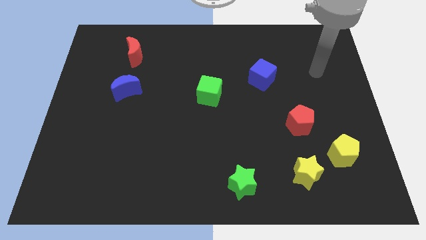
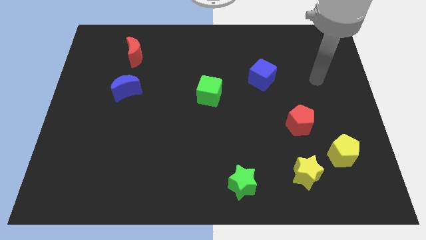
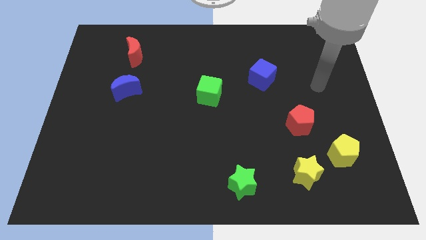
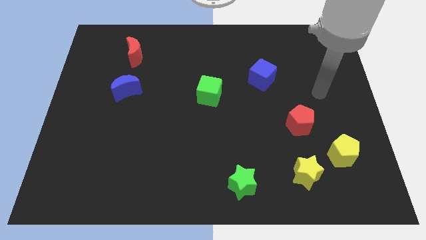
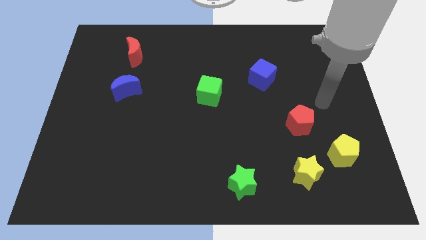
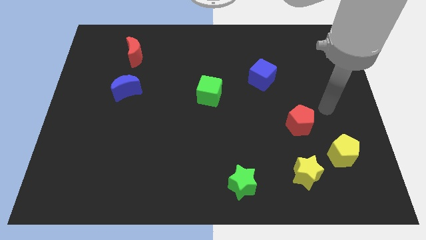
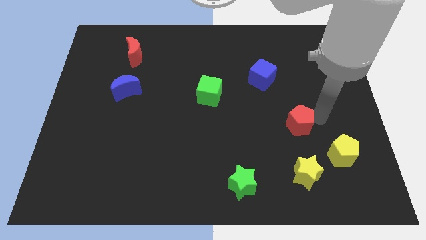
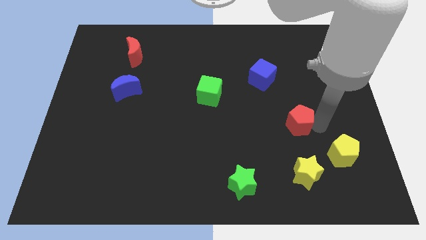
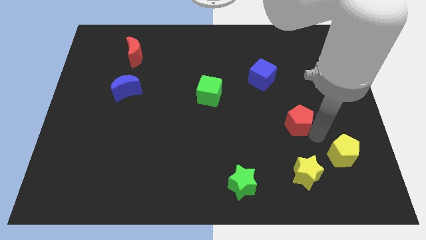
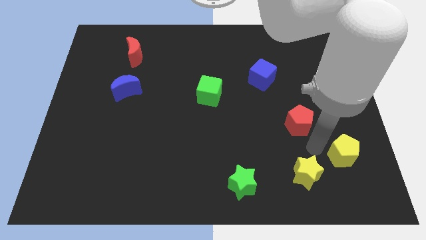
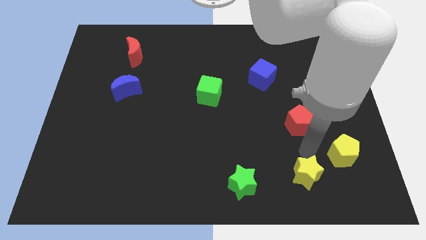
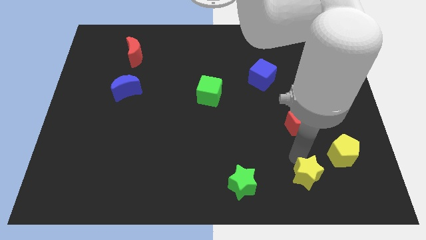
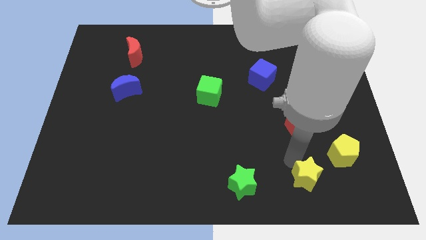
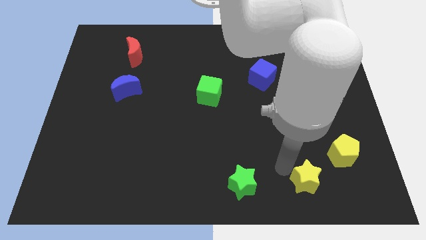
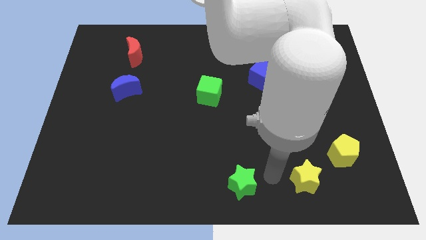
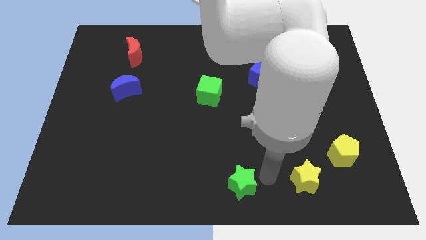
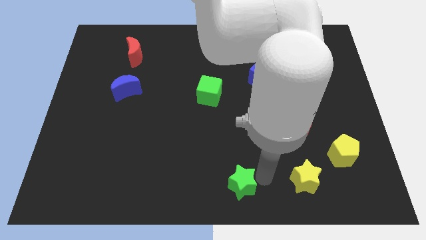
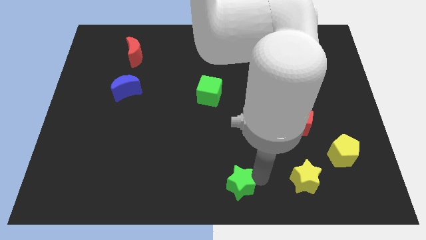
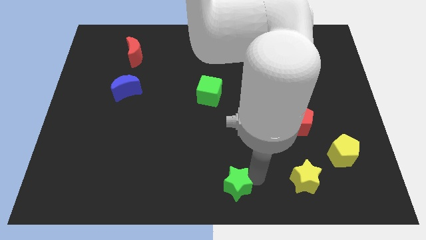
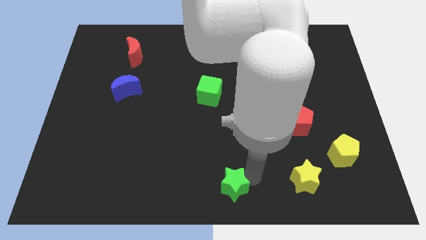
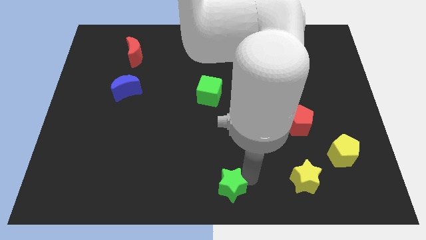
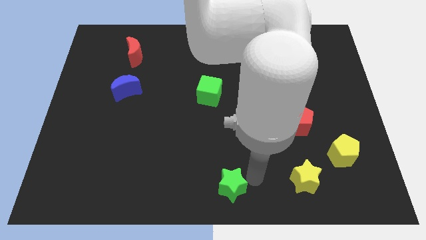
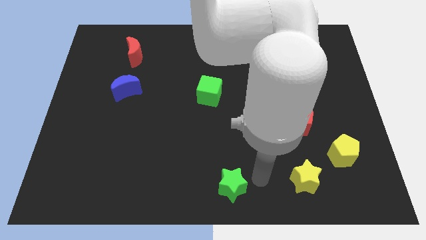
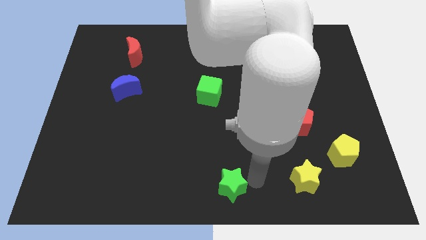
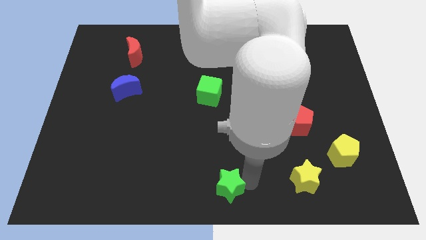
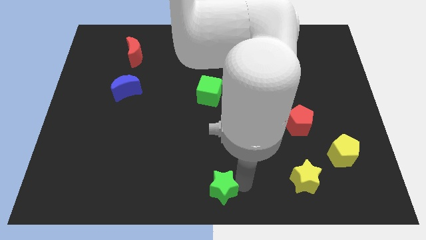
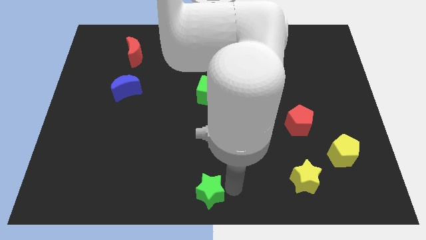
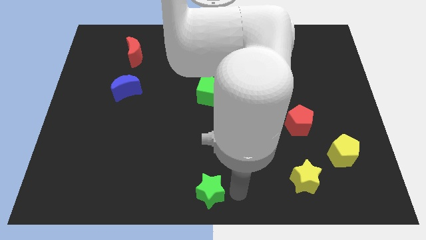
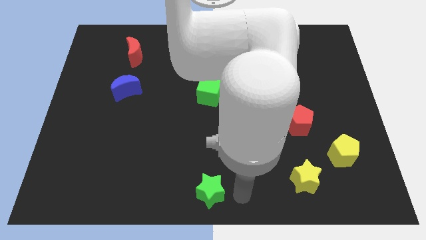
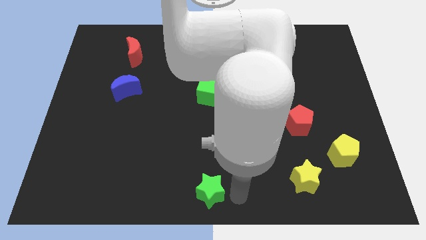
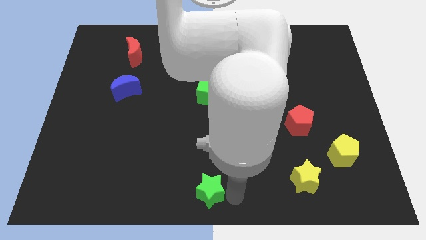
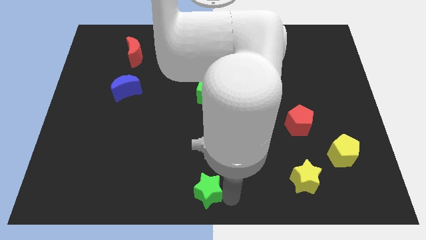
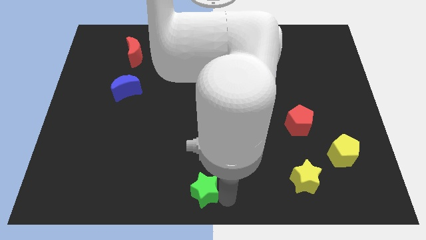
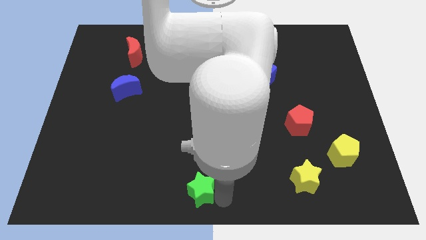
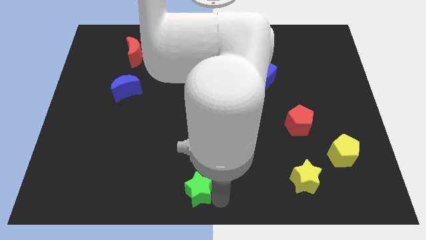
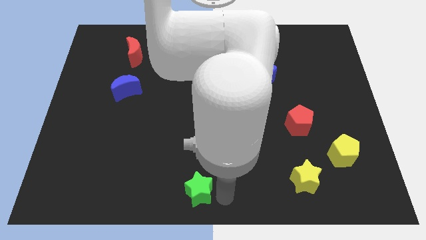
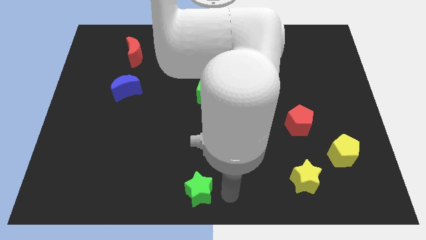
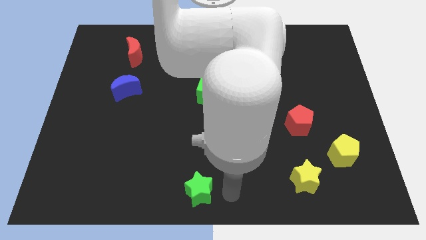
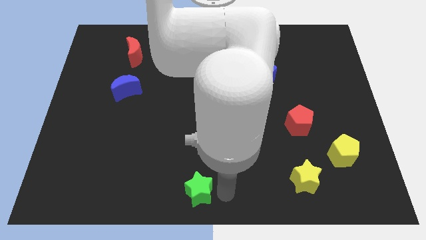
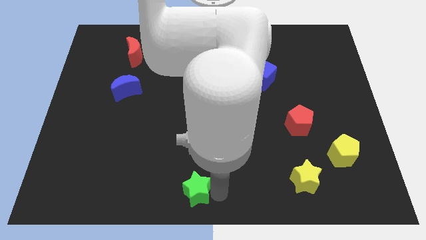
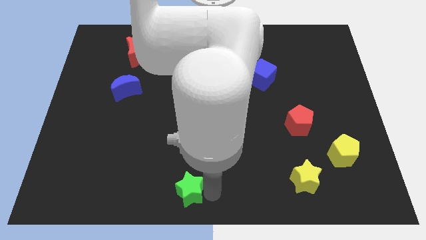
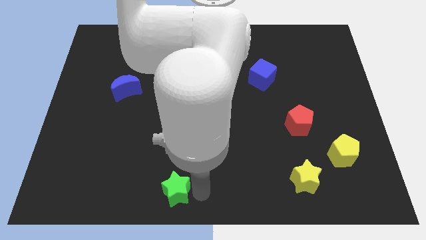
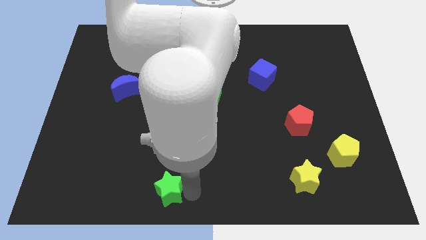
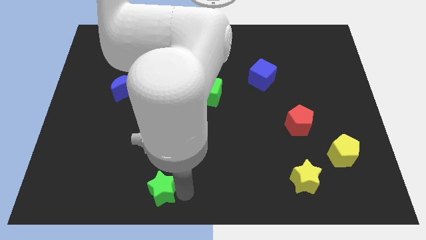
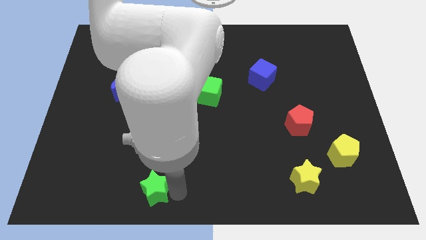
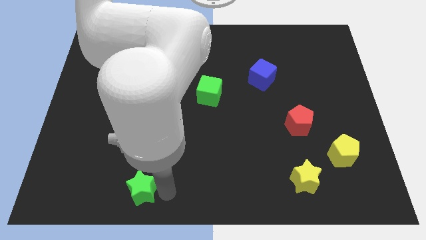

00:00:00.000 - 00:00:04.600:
push the green star left

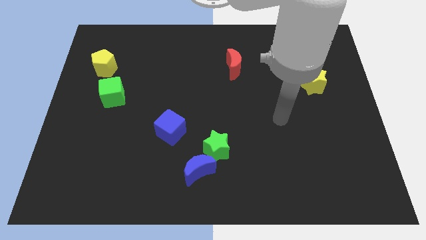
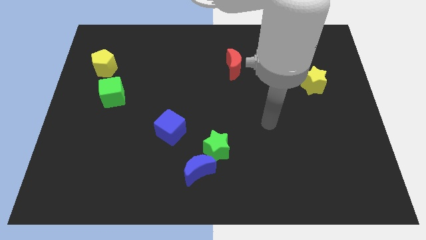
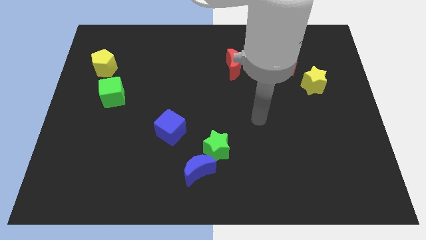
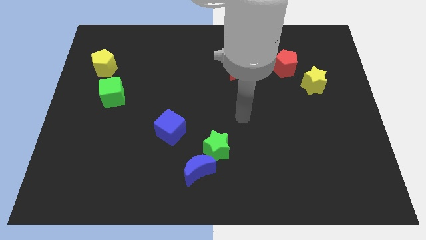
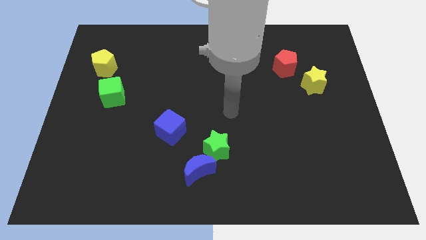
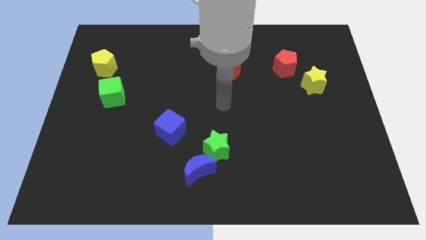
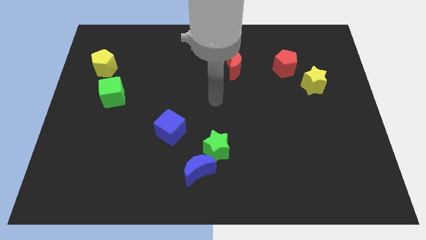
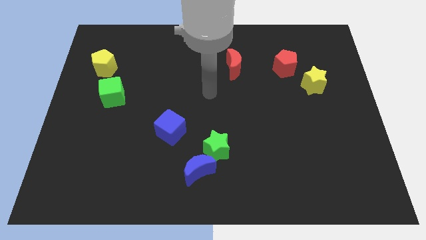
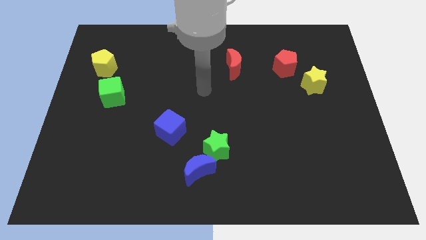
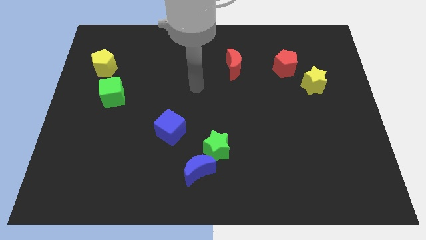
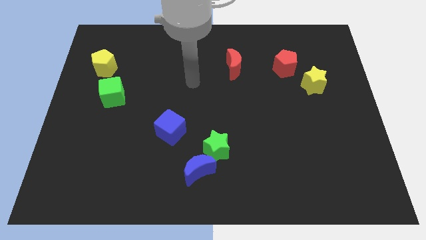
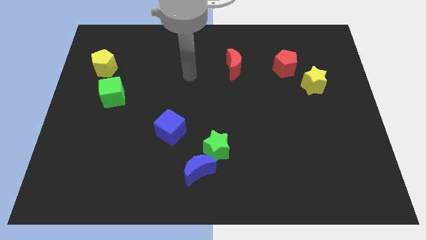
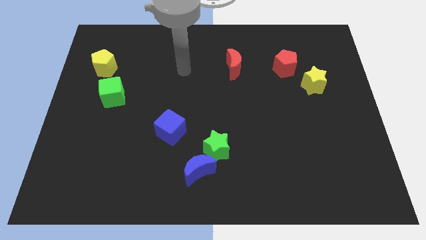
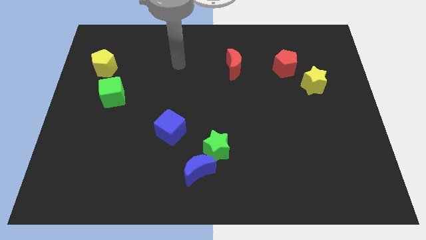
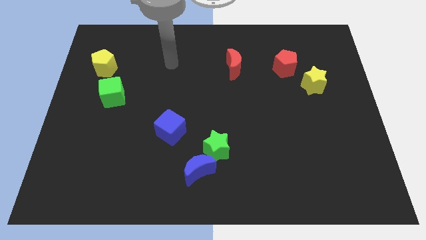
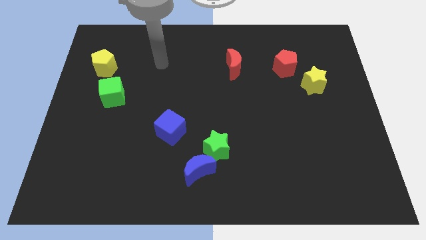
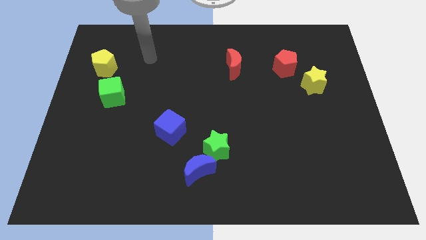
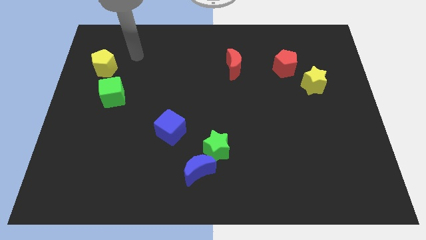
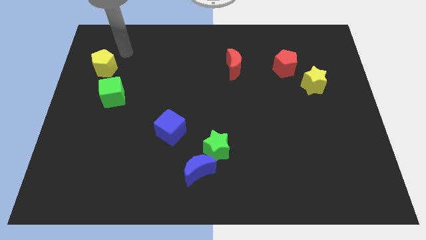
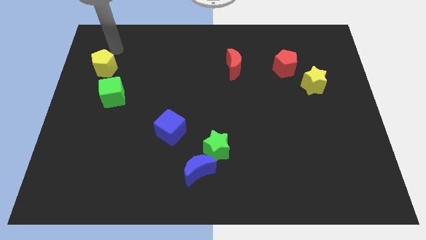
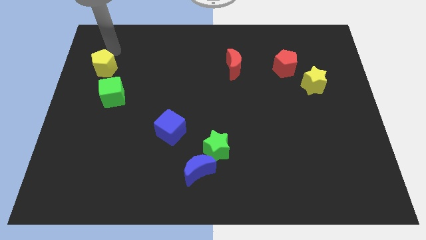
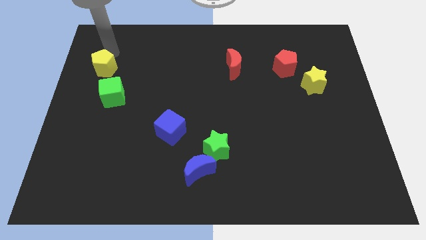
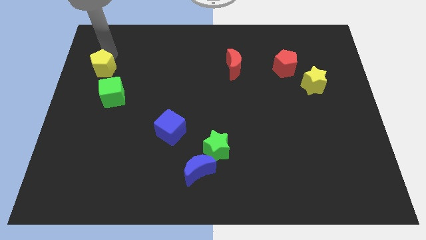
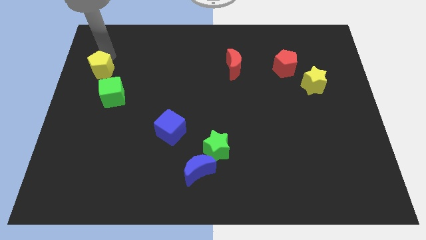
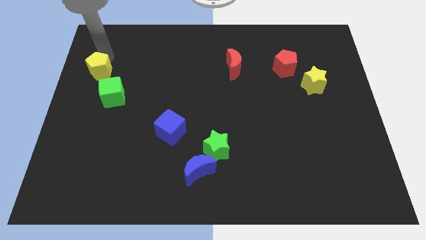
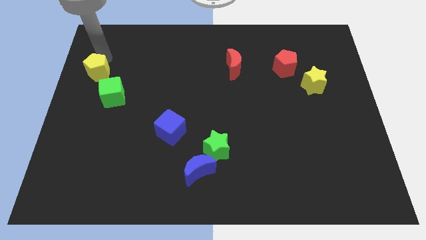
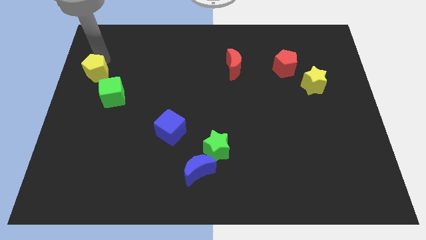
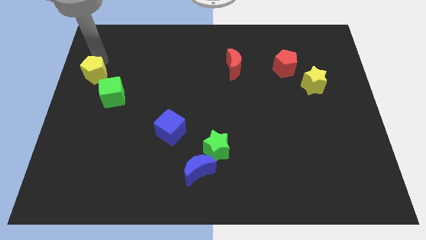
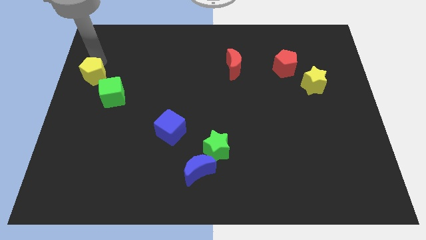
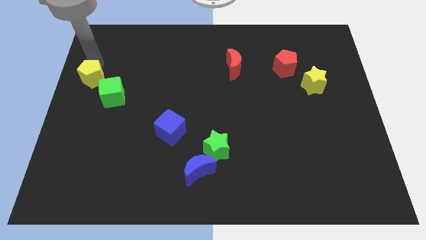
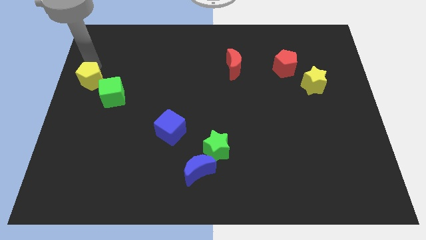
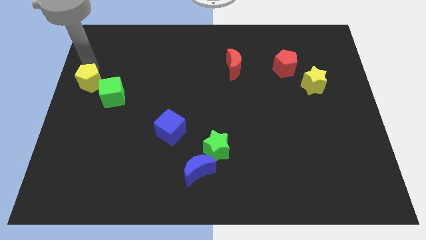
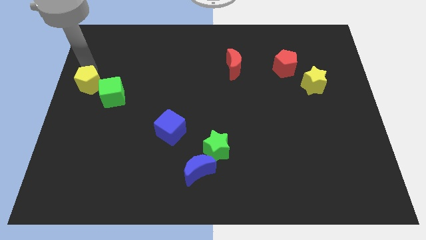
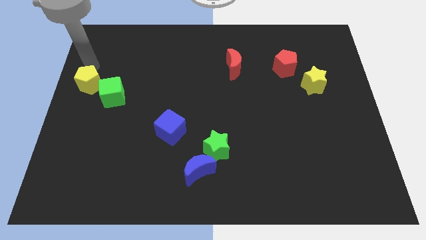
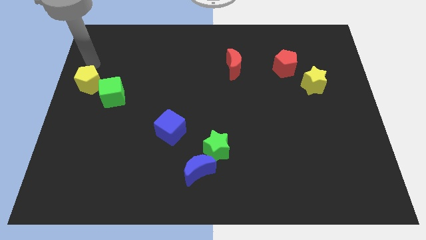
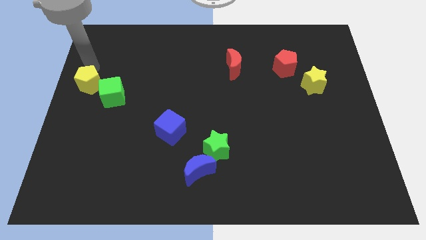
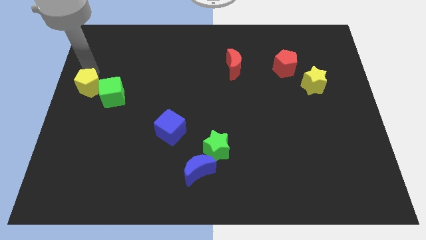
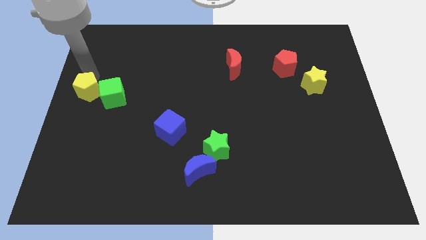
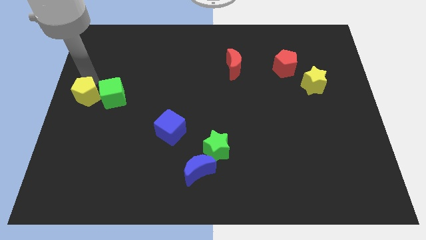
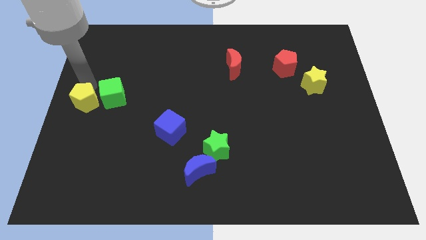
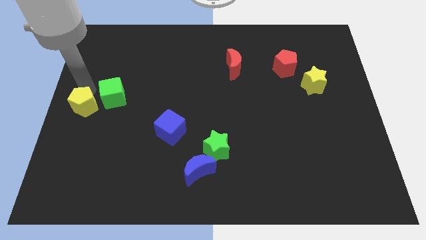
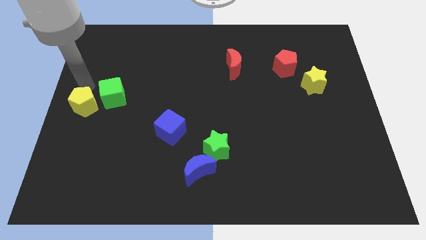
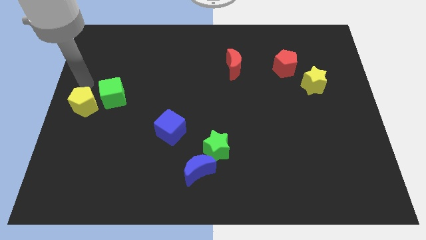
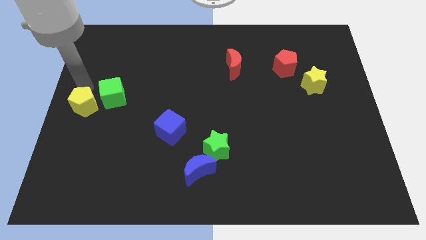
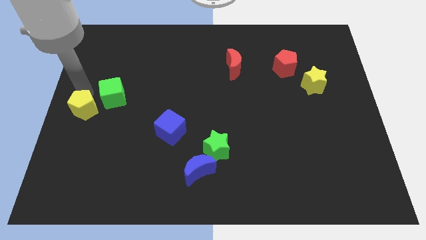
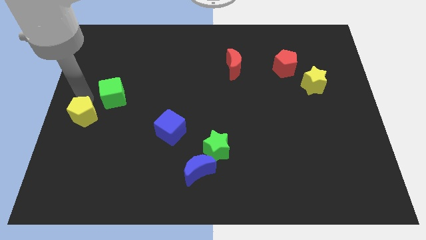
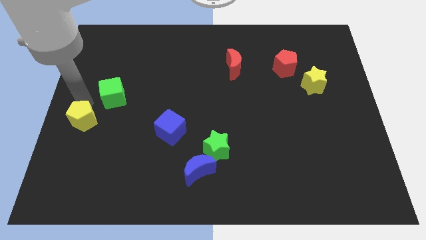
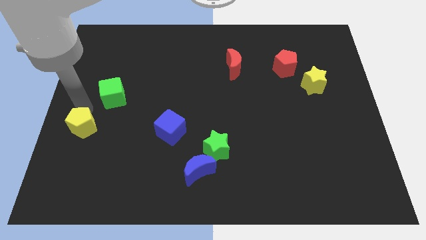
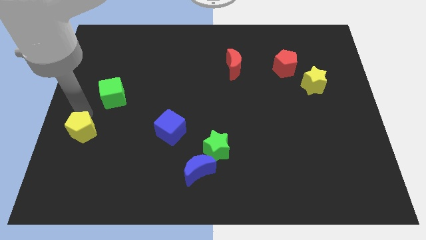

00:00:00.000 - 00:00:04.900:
push the yellow pentagon down
